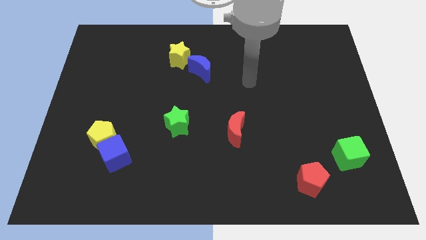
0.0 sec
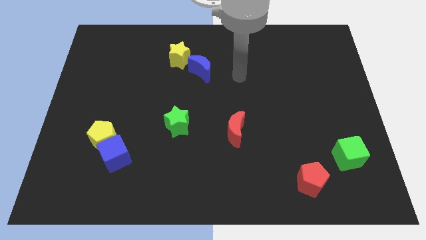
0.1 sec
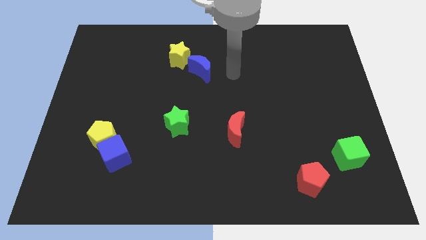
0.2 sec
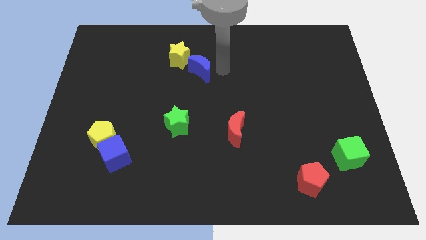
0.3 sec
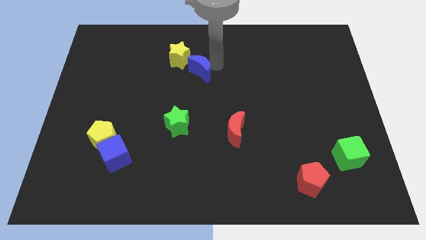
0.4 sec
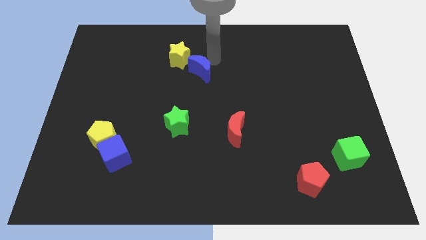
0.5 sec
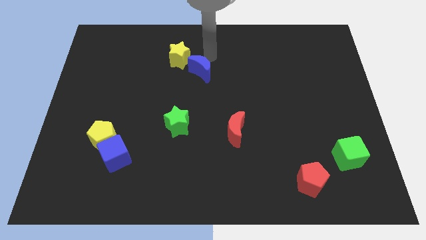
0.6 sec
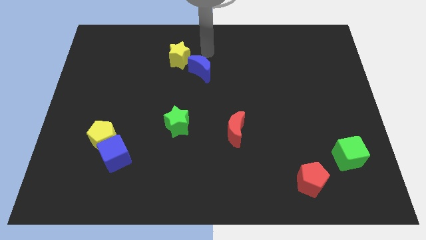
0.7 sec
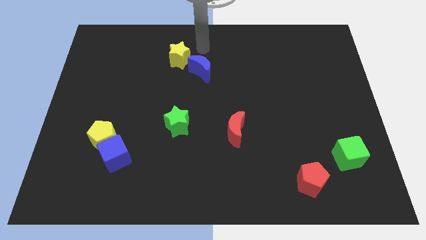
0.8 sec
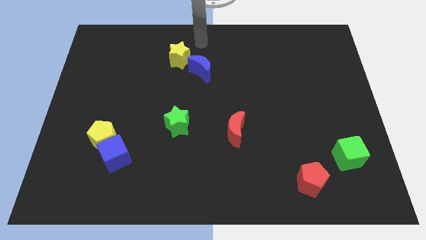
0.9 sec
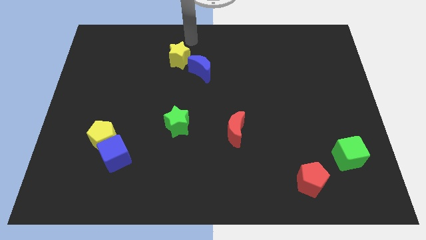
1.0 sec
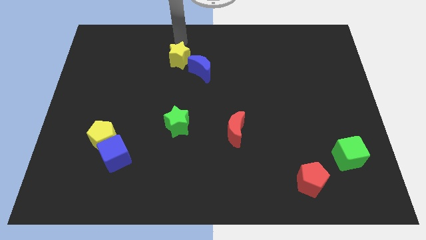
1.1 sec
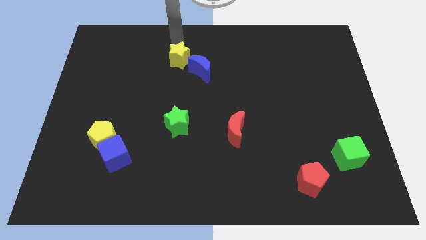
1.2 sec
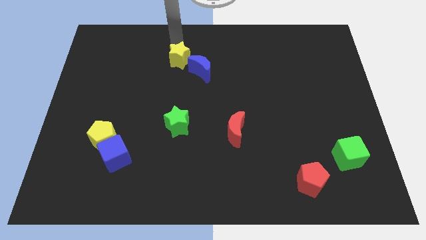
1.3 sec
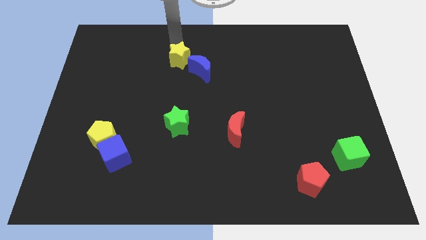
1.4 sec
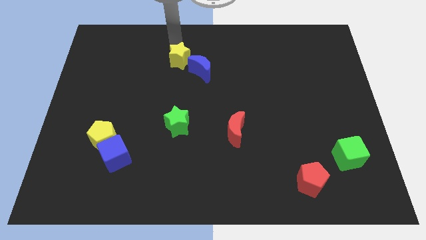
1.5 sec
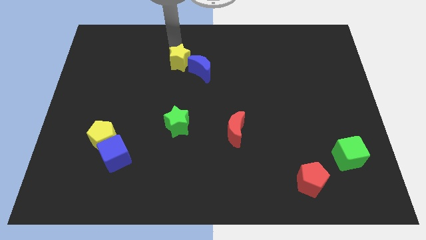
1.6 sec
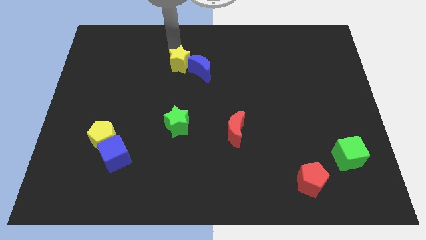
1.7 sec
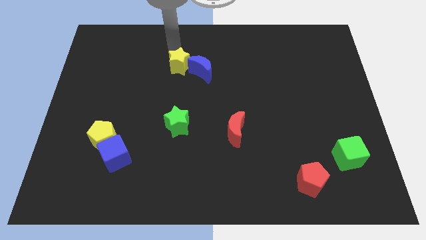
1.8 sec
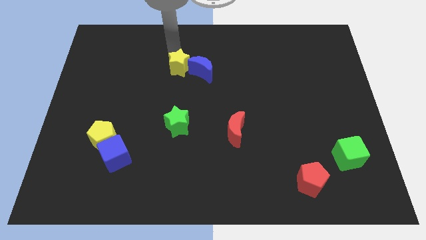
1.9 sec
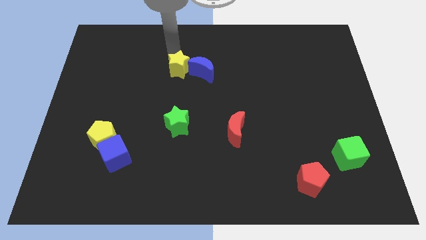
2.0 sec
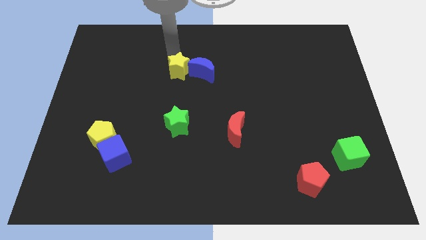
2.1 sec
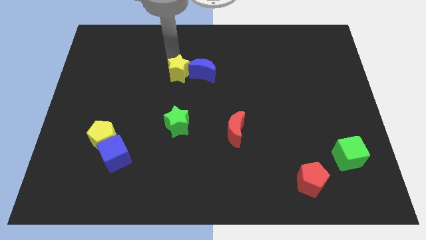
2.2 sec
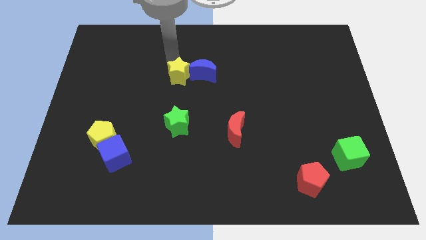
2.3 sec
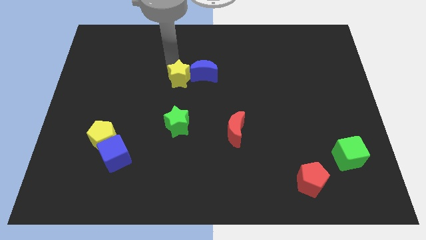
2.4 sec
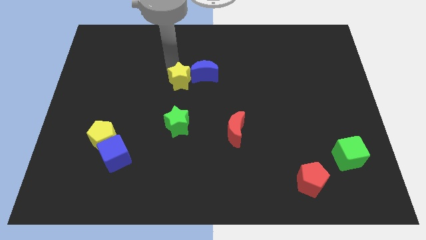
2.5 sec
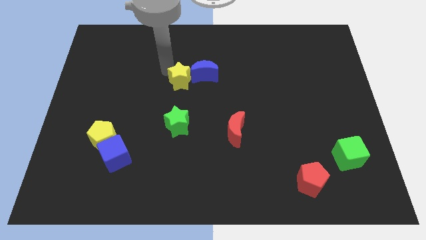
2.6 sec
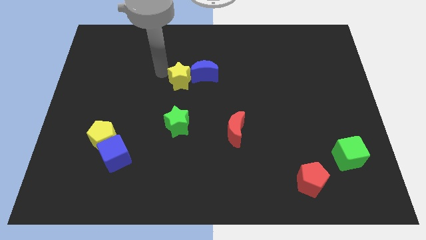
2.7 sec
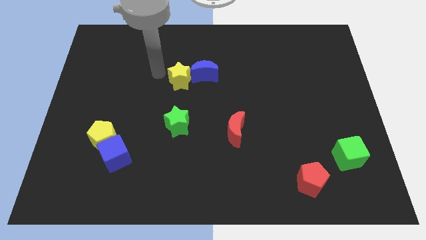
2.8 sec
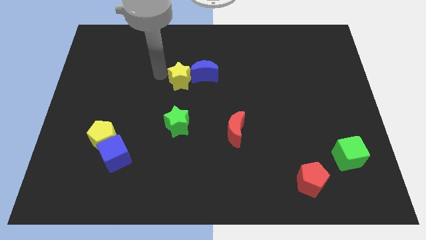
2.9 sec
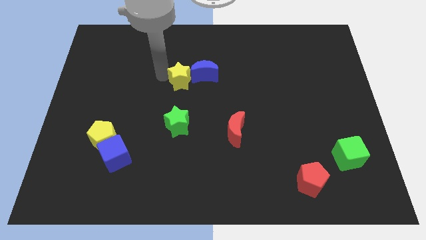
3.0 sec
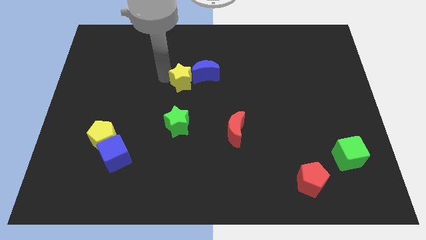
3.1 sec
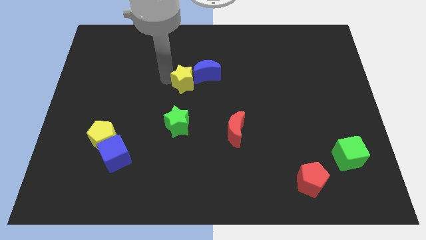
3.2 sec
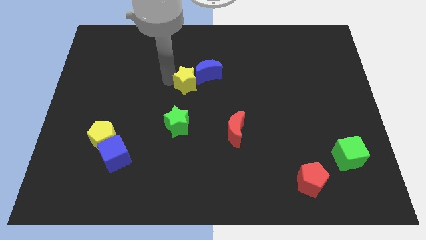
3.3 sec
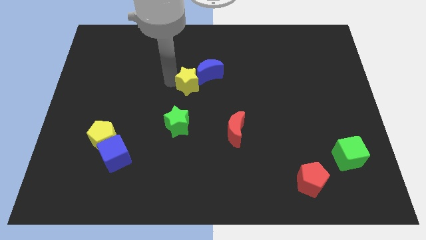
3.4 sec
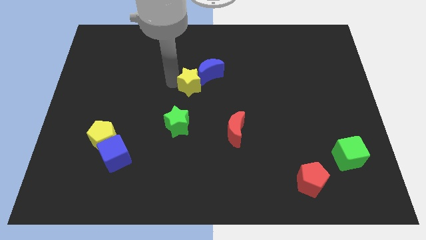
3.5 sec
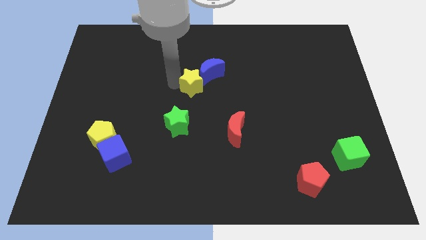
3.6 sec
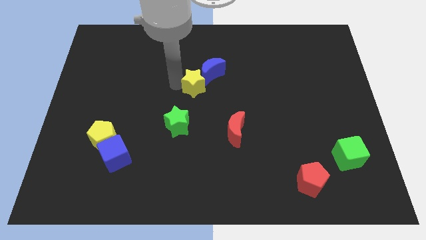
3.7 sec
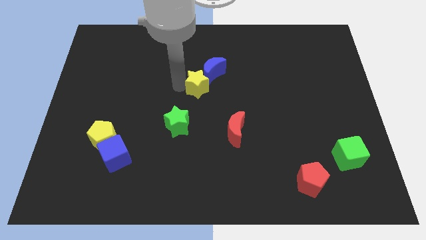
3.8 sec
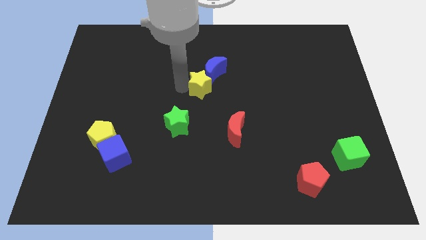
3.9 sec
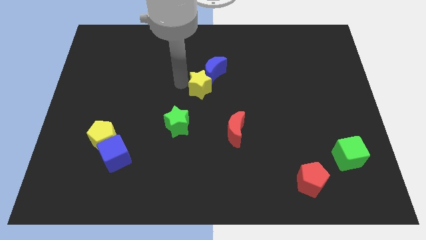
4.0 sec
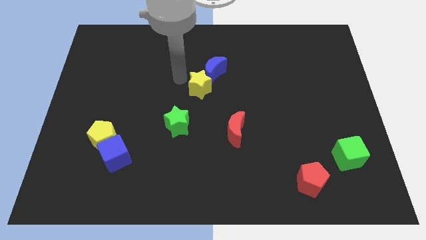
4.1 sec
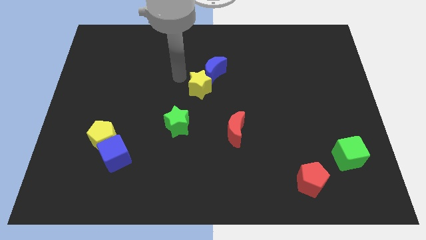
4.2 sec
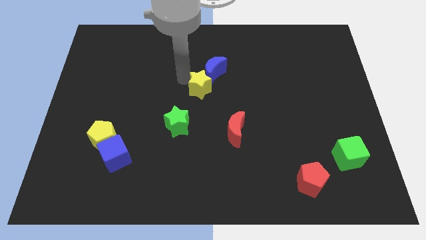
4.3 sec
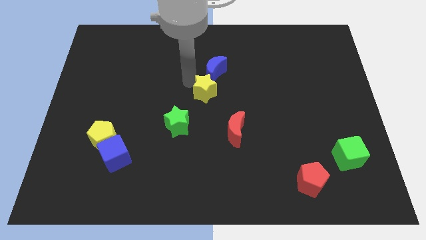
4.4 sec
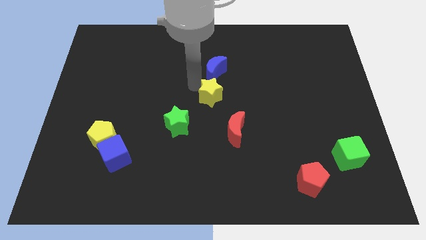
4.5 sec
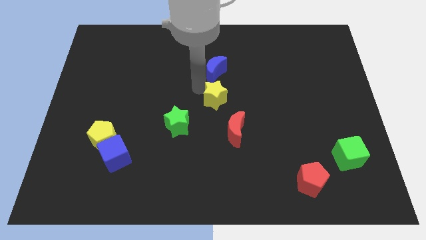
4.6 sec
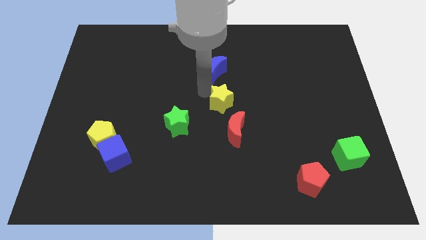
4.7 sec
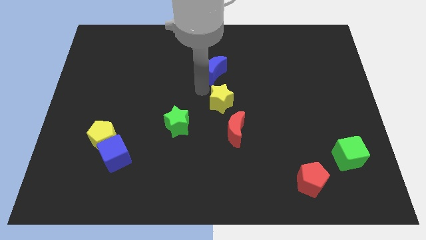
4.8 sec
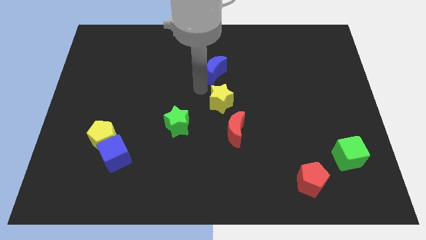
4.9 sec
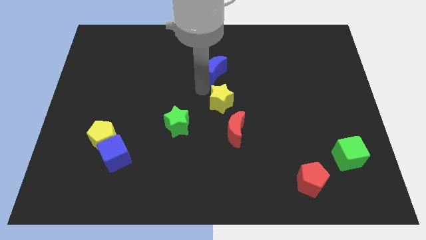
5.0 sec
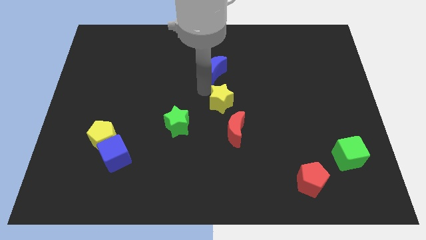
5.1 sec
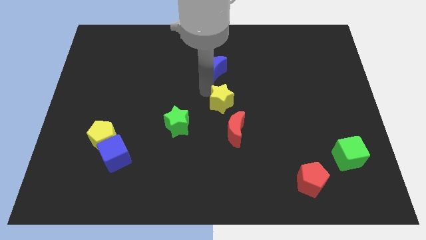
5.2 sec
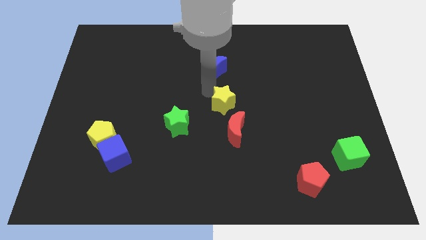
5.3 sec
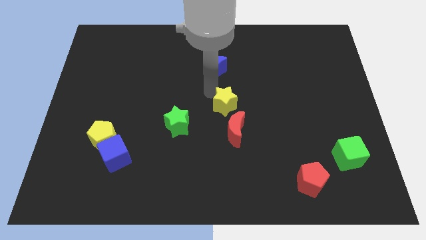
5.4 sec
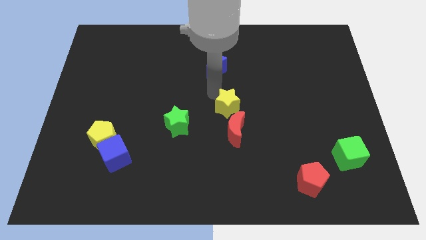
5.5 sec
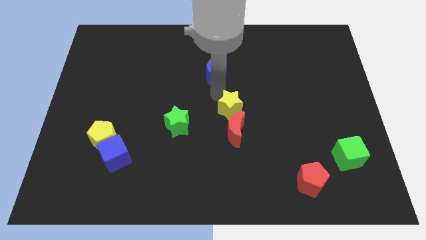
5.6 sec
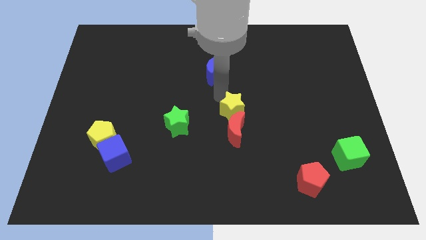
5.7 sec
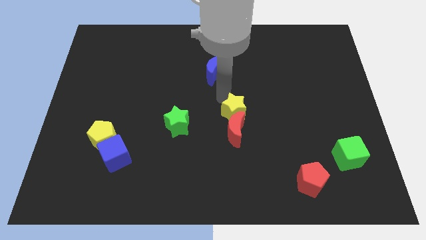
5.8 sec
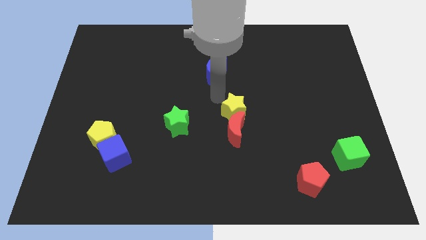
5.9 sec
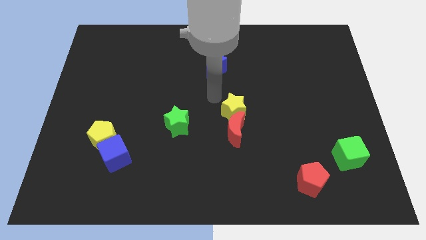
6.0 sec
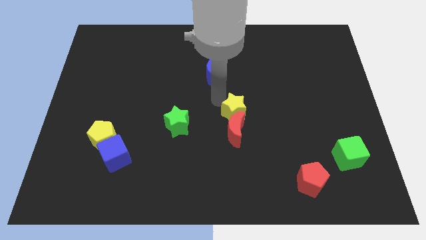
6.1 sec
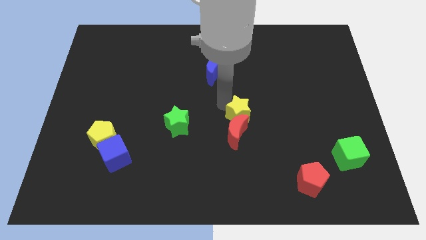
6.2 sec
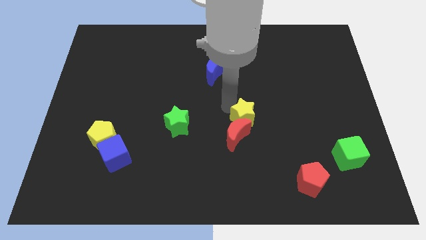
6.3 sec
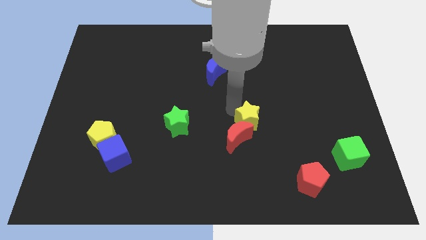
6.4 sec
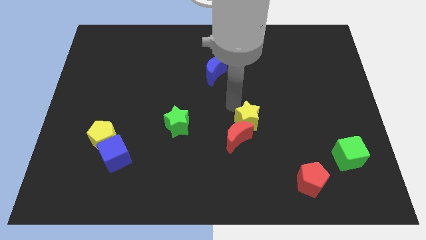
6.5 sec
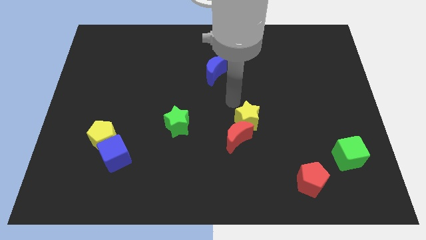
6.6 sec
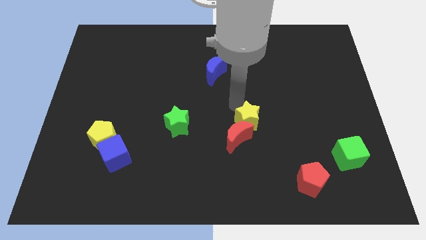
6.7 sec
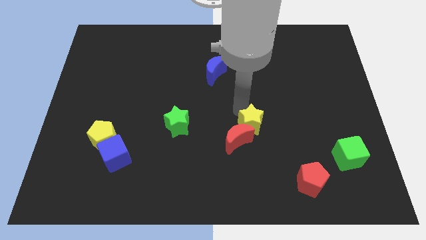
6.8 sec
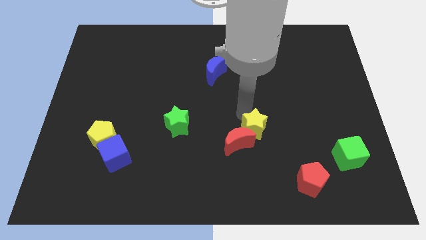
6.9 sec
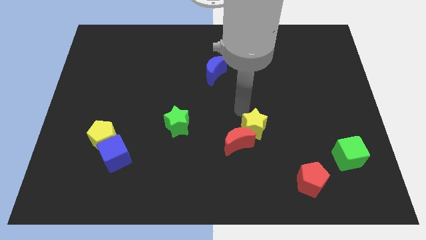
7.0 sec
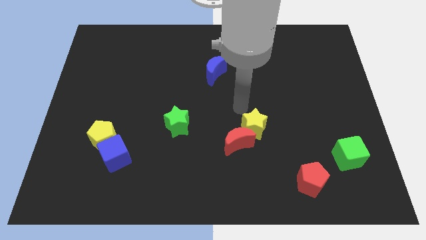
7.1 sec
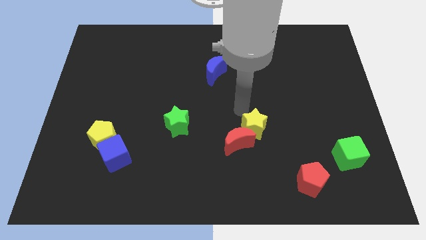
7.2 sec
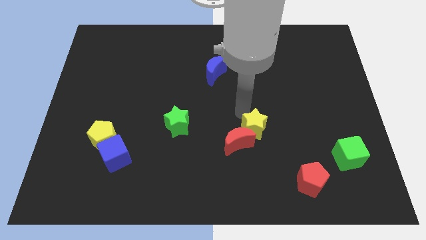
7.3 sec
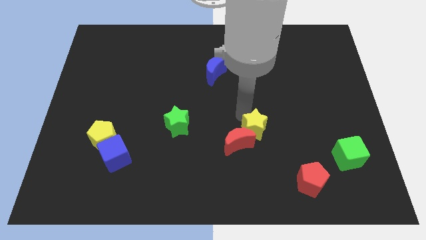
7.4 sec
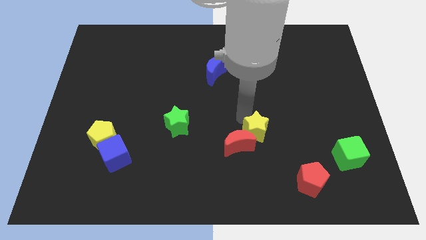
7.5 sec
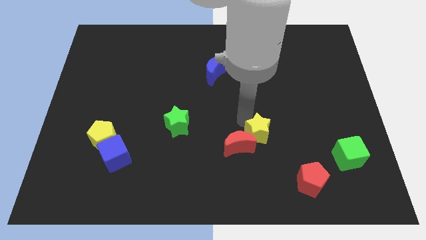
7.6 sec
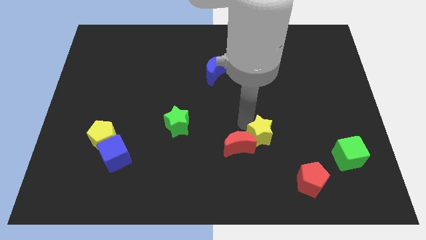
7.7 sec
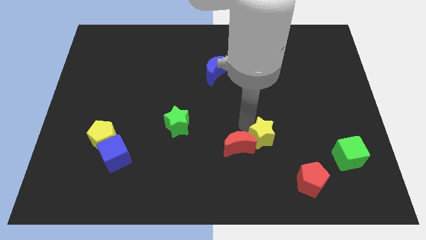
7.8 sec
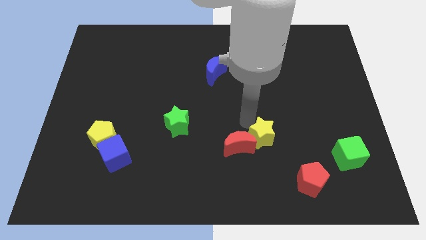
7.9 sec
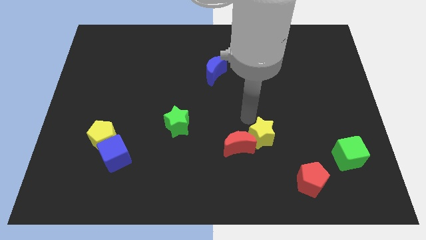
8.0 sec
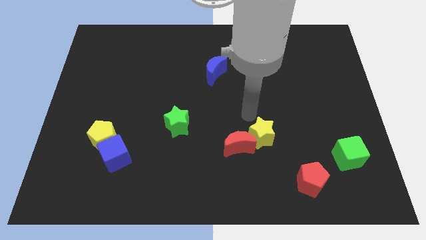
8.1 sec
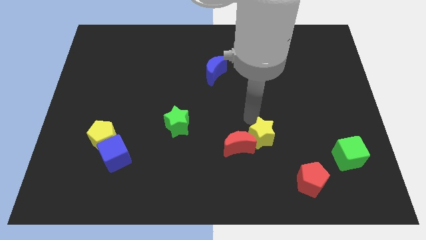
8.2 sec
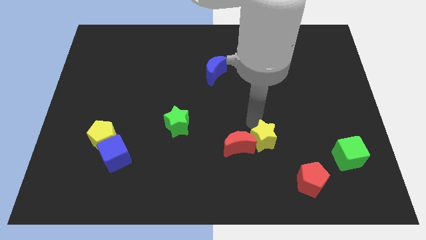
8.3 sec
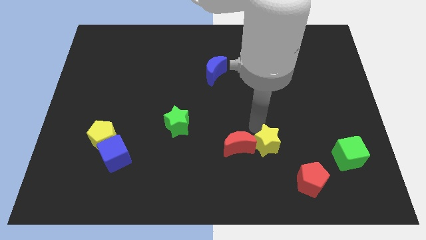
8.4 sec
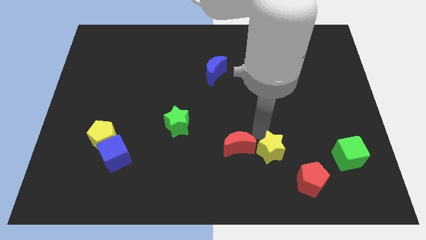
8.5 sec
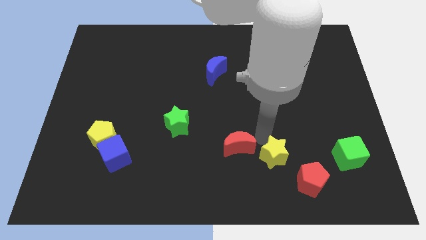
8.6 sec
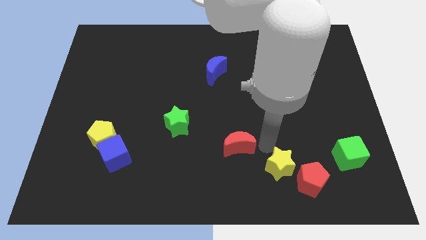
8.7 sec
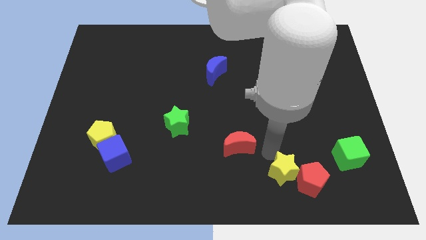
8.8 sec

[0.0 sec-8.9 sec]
put the yellow star towards the red pentagon
